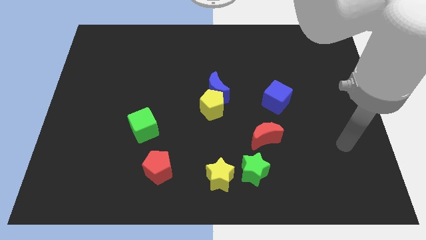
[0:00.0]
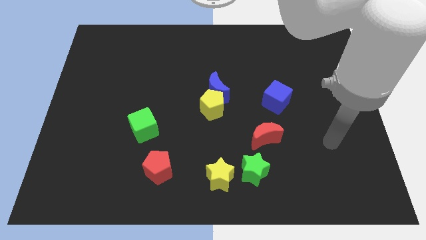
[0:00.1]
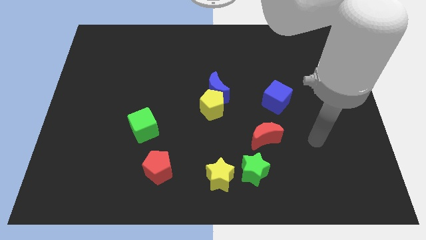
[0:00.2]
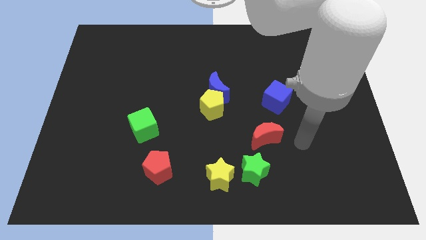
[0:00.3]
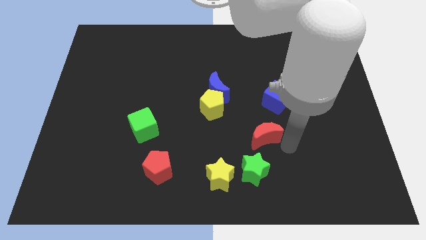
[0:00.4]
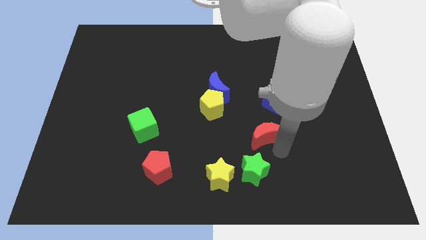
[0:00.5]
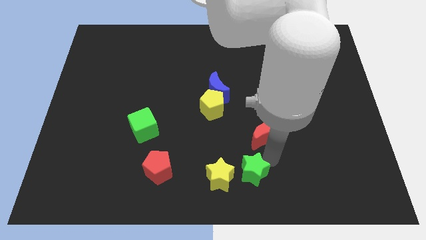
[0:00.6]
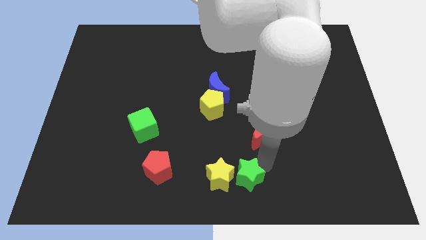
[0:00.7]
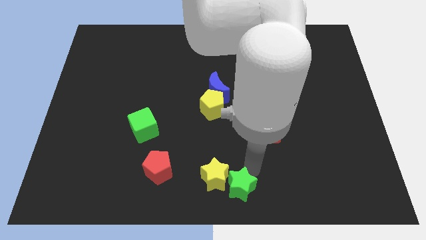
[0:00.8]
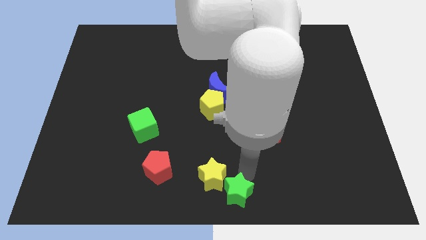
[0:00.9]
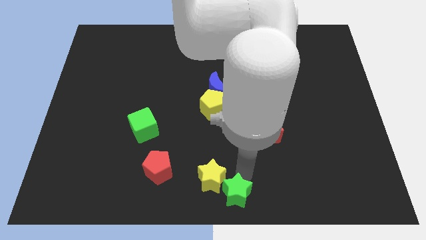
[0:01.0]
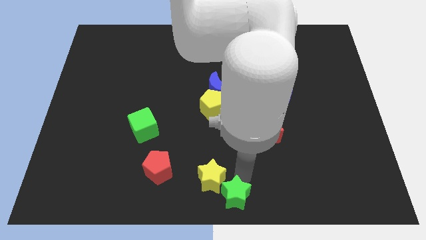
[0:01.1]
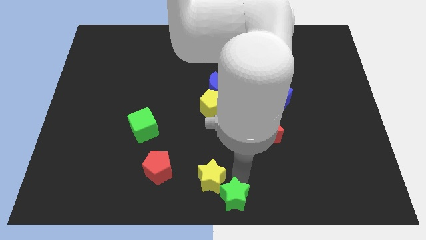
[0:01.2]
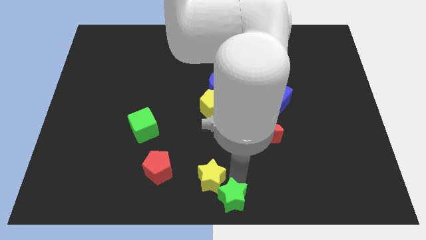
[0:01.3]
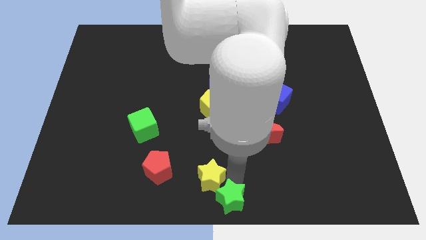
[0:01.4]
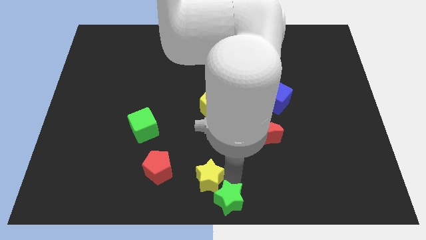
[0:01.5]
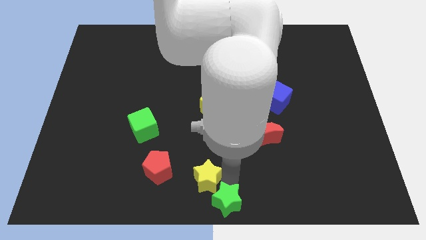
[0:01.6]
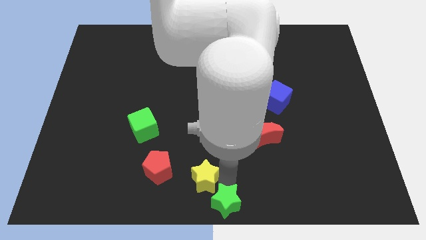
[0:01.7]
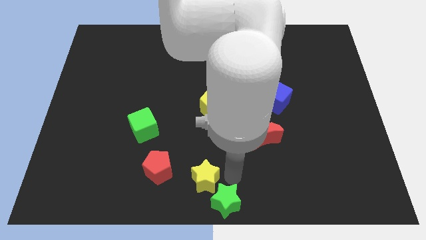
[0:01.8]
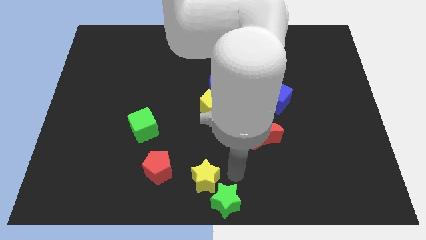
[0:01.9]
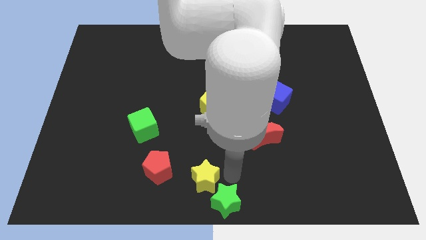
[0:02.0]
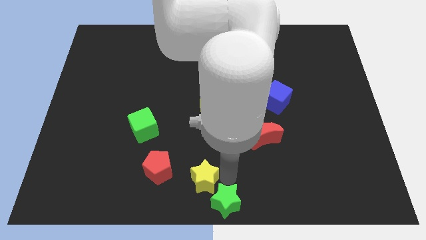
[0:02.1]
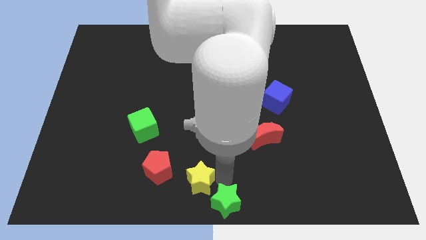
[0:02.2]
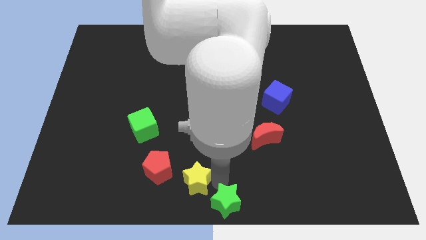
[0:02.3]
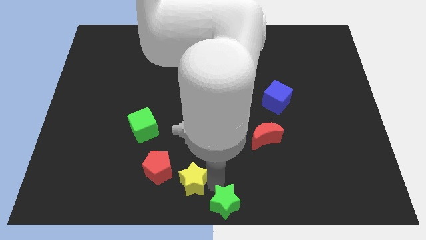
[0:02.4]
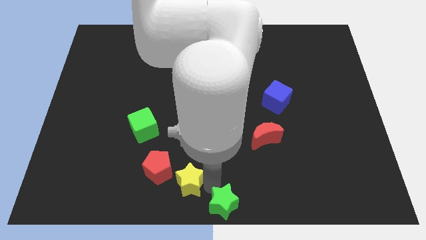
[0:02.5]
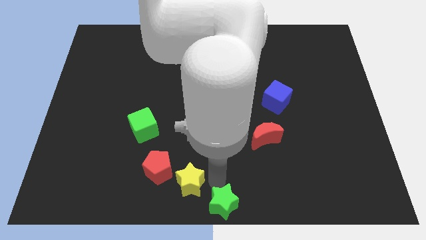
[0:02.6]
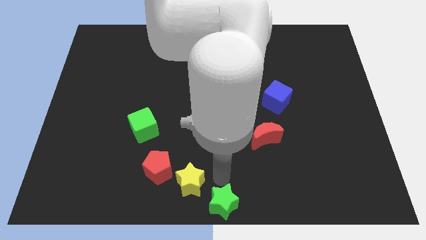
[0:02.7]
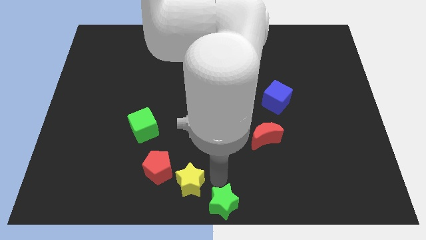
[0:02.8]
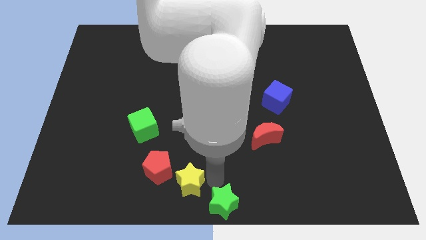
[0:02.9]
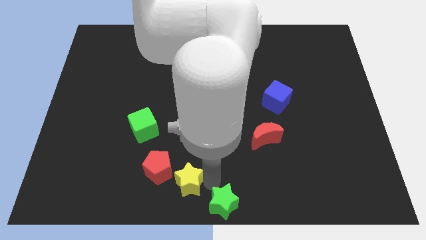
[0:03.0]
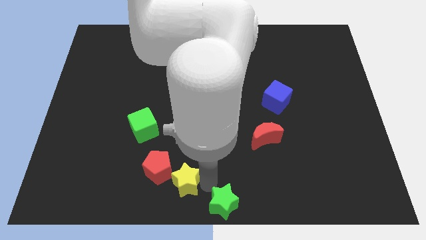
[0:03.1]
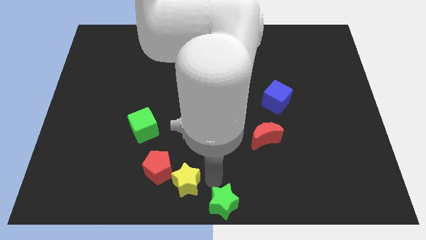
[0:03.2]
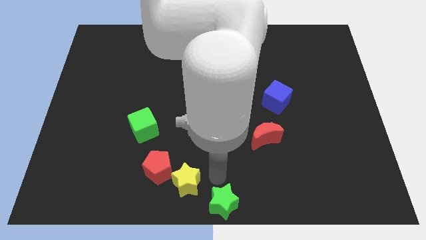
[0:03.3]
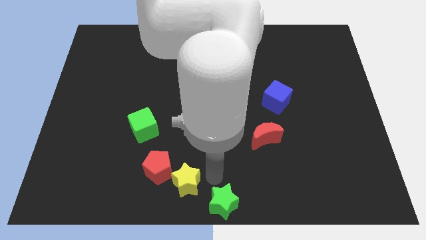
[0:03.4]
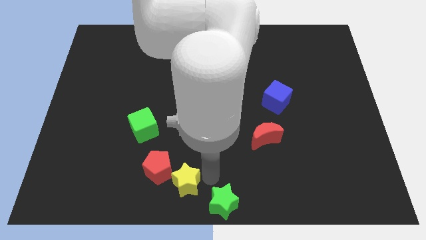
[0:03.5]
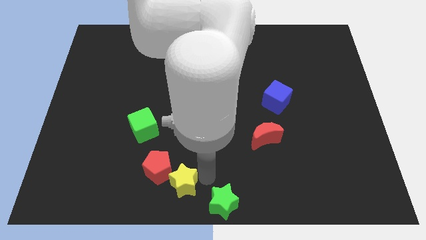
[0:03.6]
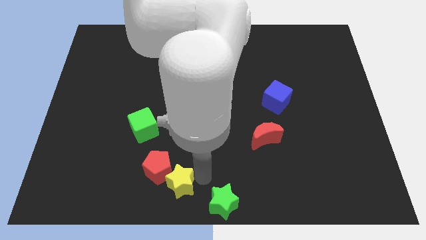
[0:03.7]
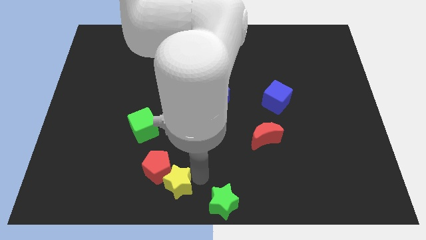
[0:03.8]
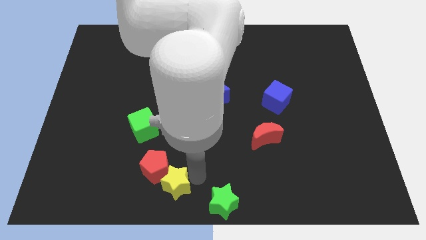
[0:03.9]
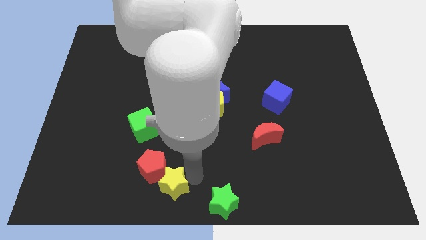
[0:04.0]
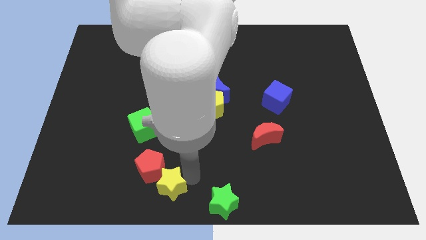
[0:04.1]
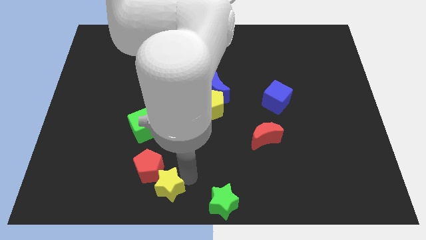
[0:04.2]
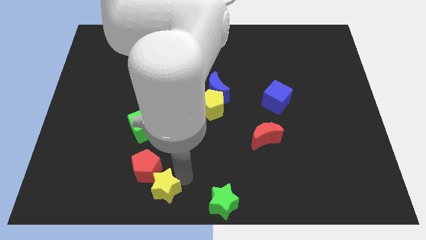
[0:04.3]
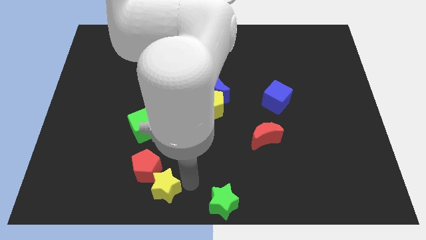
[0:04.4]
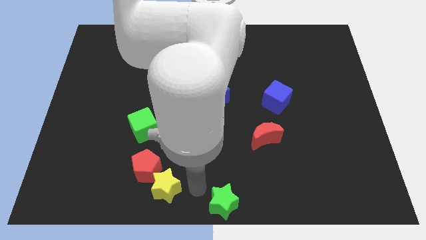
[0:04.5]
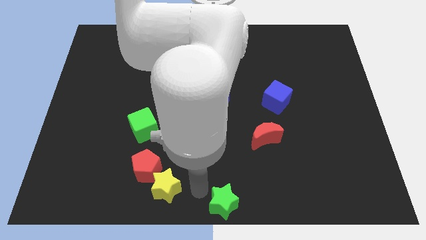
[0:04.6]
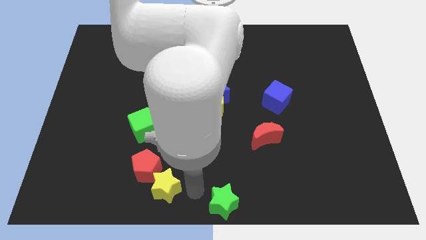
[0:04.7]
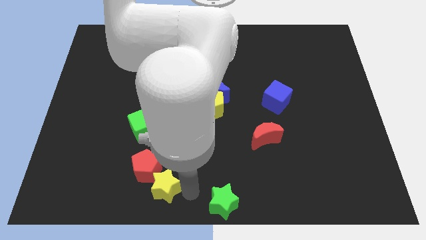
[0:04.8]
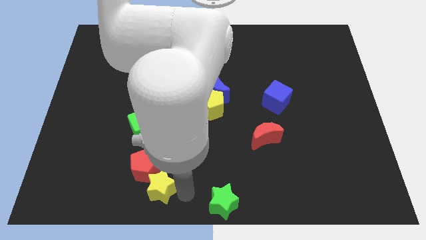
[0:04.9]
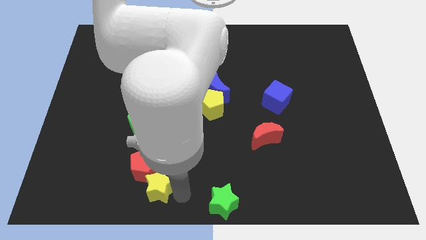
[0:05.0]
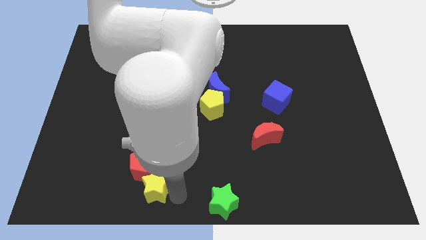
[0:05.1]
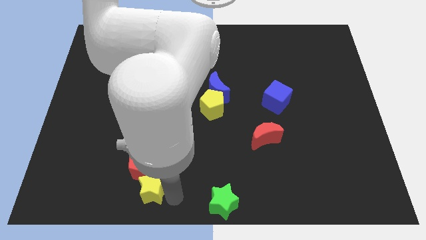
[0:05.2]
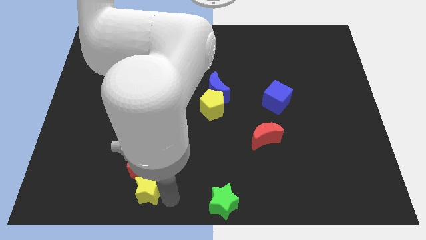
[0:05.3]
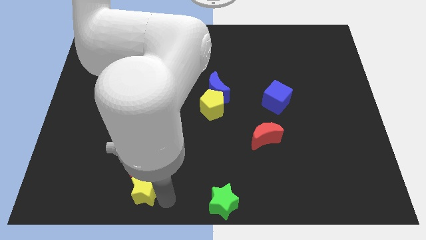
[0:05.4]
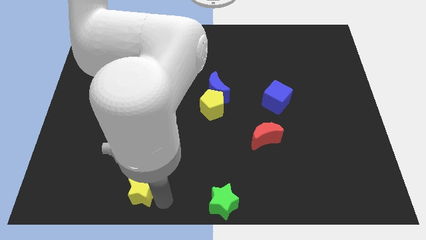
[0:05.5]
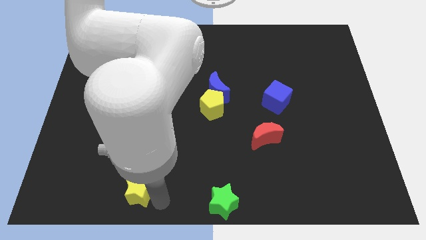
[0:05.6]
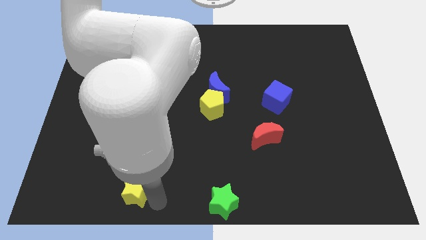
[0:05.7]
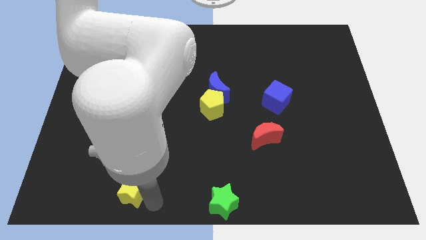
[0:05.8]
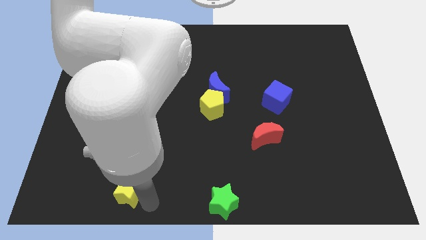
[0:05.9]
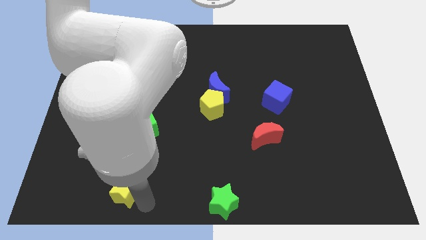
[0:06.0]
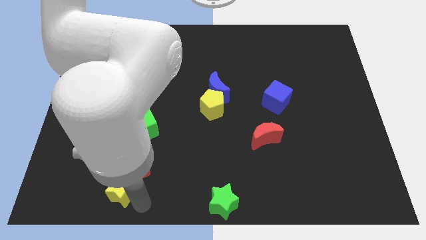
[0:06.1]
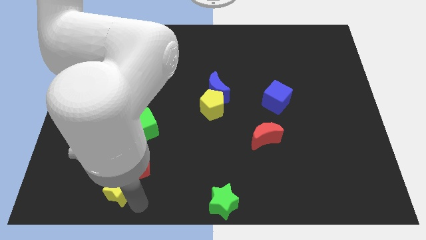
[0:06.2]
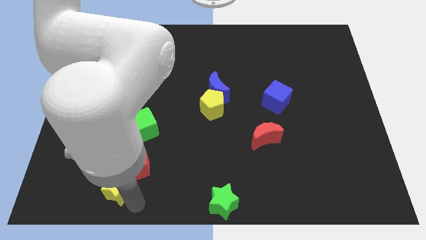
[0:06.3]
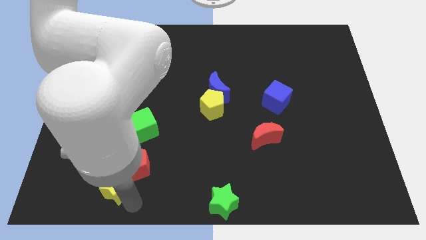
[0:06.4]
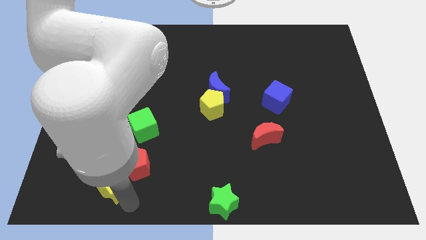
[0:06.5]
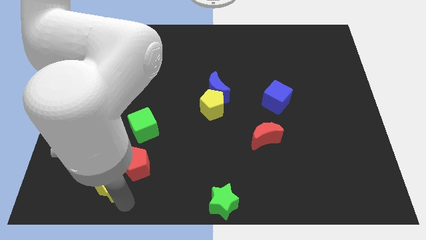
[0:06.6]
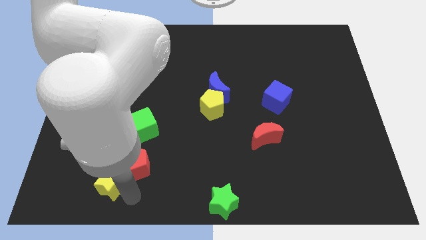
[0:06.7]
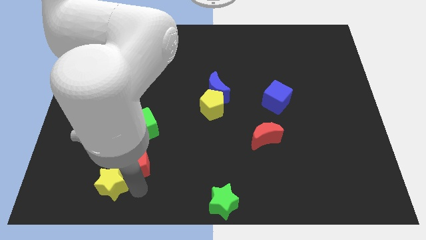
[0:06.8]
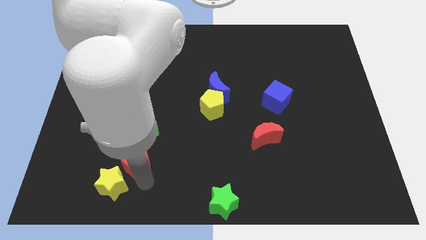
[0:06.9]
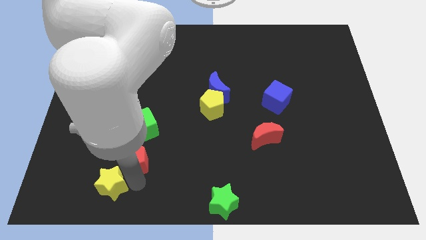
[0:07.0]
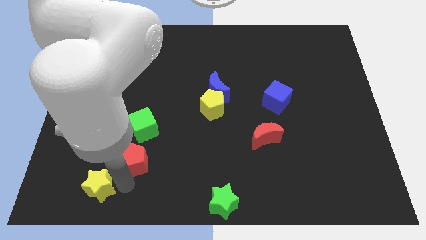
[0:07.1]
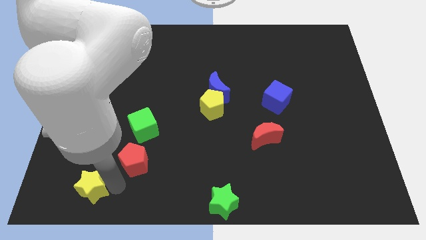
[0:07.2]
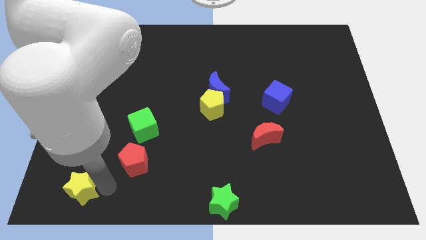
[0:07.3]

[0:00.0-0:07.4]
push the yellow star to the lower left corner

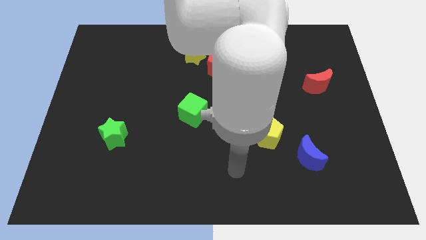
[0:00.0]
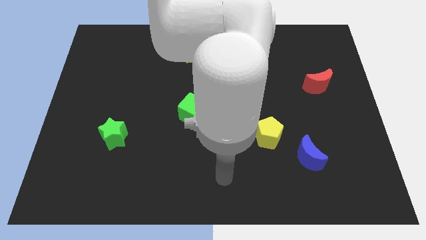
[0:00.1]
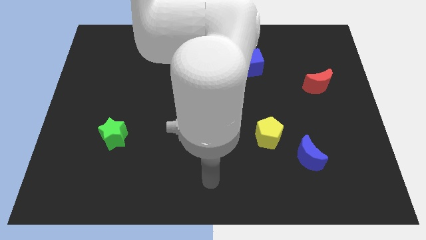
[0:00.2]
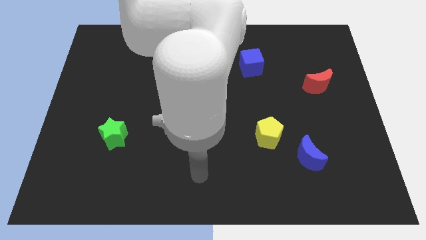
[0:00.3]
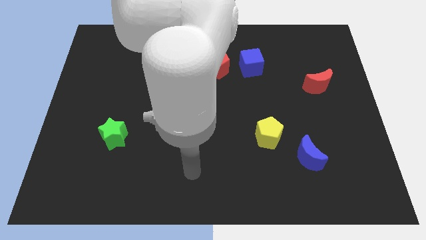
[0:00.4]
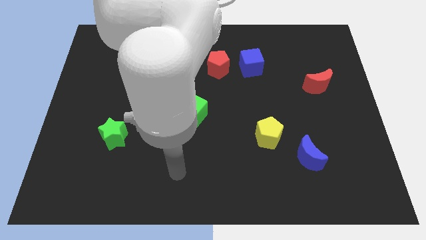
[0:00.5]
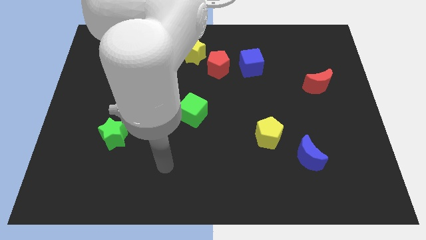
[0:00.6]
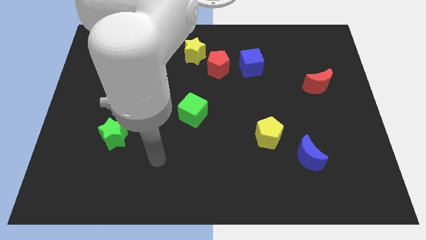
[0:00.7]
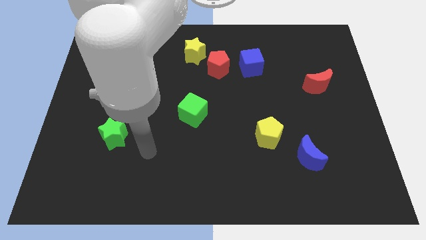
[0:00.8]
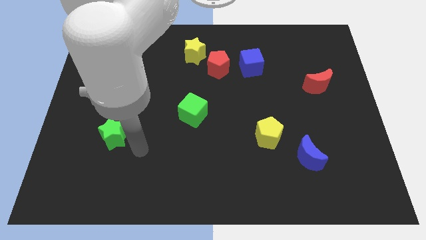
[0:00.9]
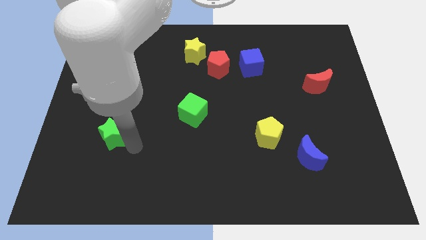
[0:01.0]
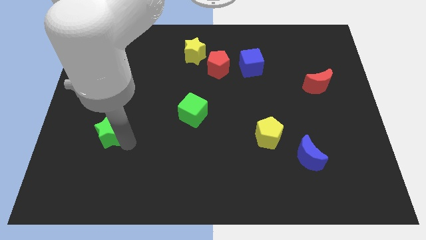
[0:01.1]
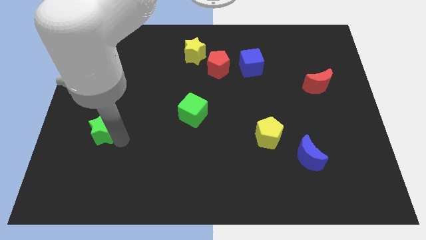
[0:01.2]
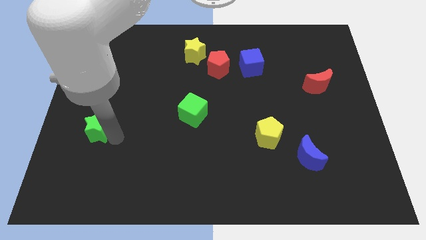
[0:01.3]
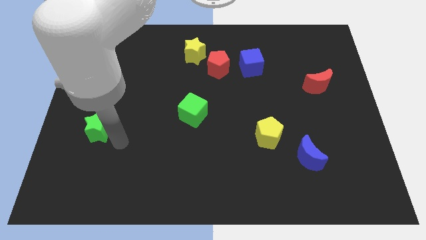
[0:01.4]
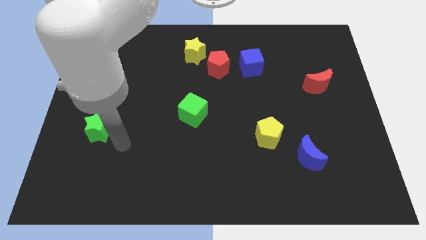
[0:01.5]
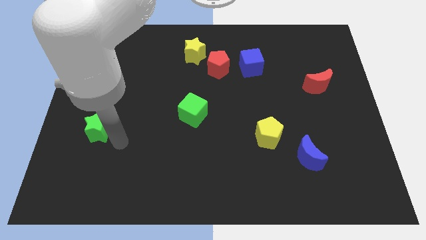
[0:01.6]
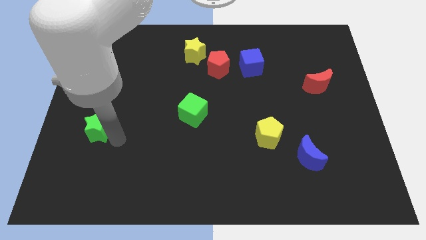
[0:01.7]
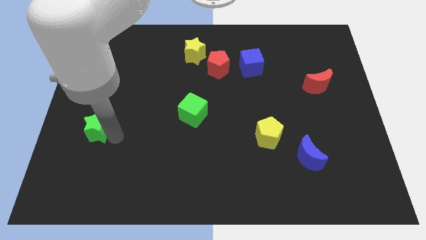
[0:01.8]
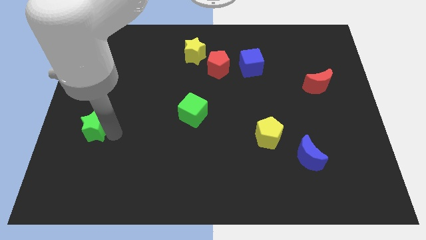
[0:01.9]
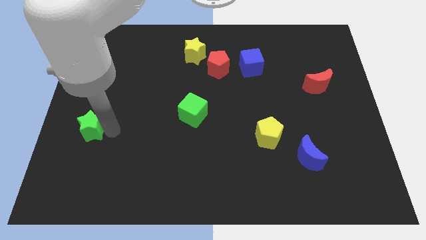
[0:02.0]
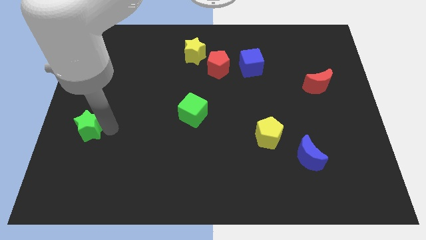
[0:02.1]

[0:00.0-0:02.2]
slide the green star to the center left
